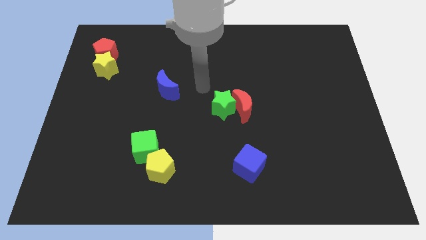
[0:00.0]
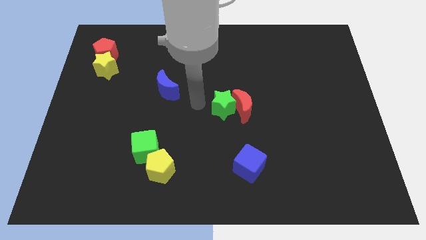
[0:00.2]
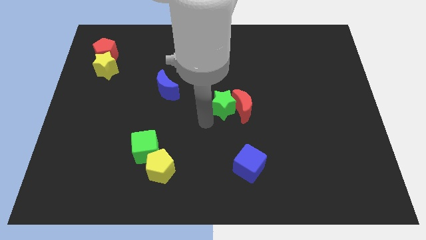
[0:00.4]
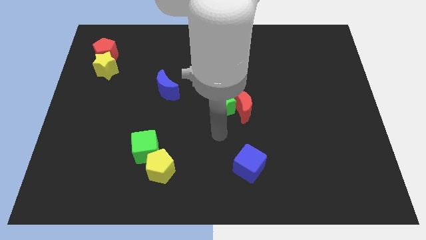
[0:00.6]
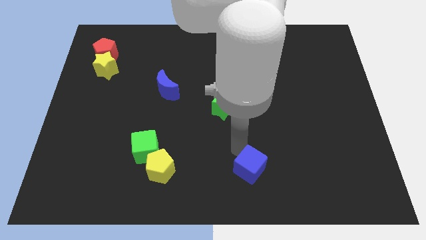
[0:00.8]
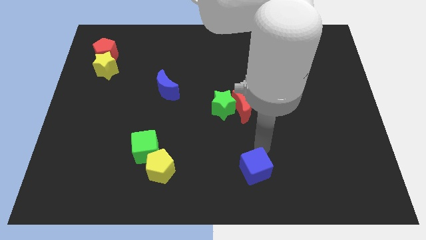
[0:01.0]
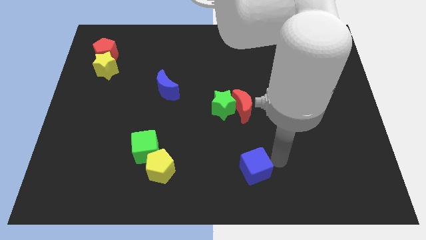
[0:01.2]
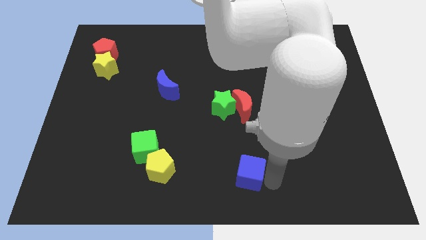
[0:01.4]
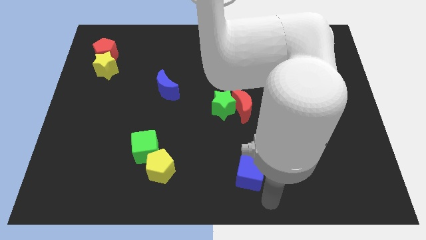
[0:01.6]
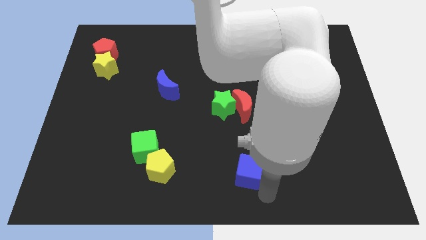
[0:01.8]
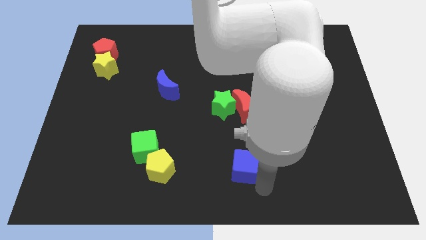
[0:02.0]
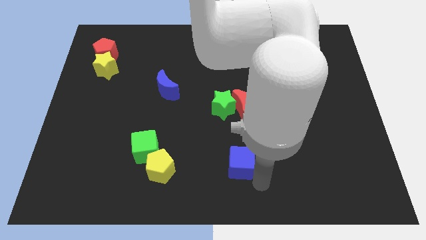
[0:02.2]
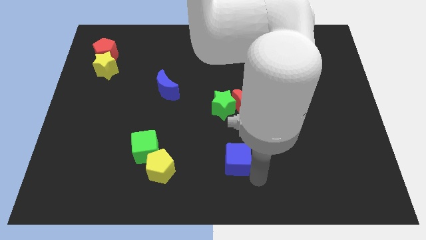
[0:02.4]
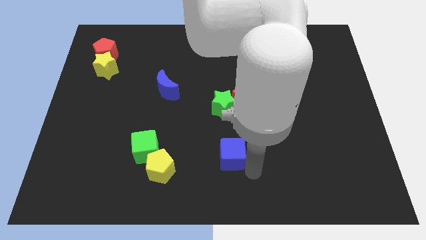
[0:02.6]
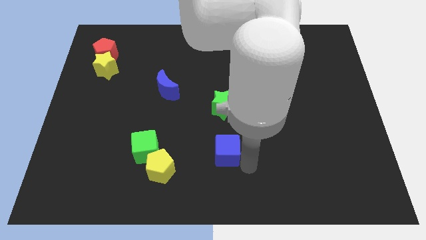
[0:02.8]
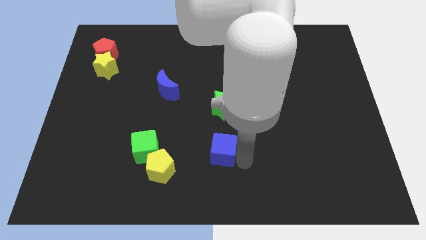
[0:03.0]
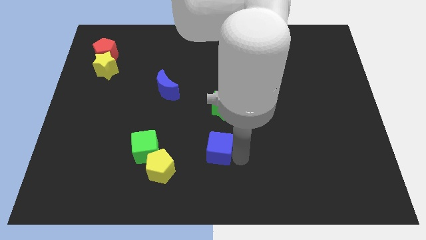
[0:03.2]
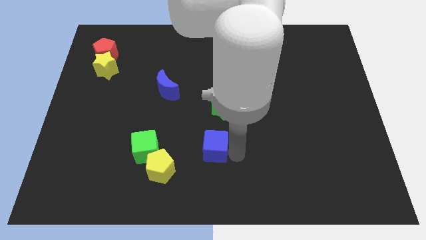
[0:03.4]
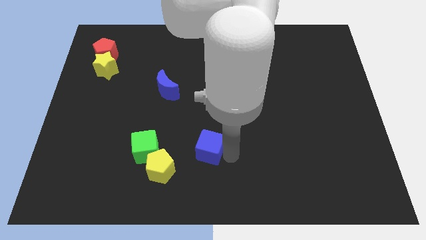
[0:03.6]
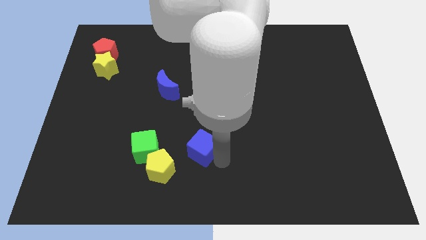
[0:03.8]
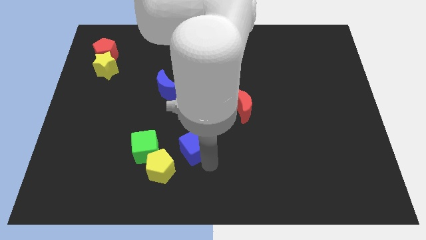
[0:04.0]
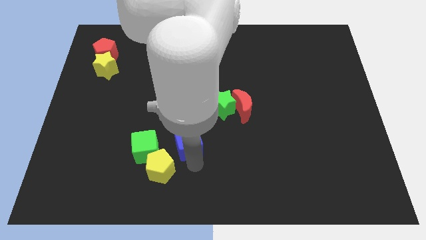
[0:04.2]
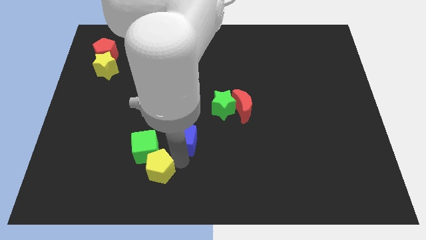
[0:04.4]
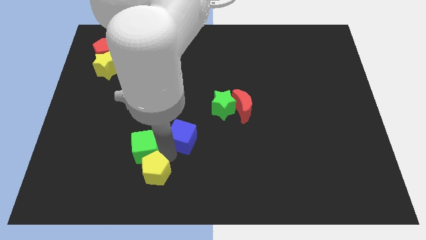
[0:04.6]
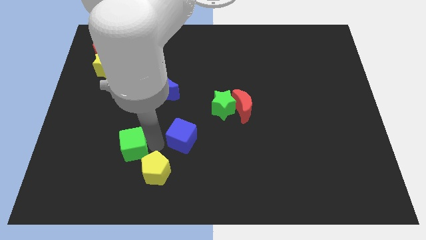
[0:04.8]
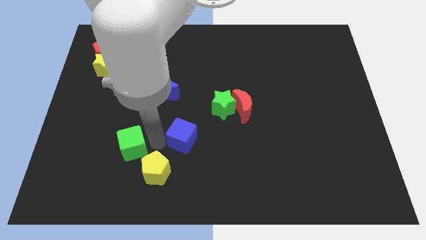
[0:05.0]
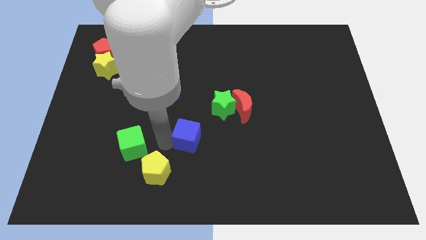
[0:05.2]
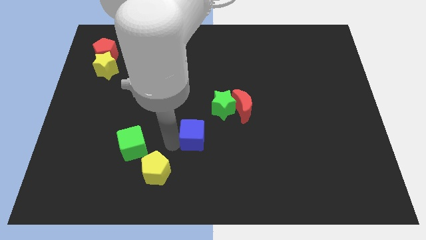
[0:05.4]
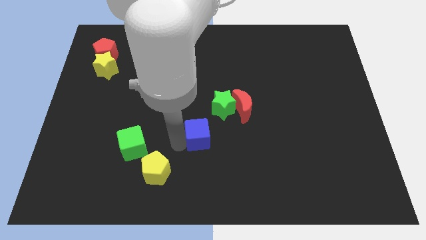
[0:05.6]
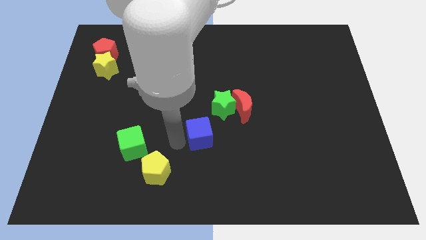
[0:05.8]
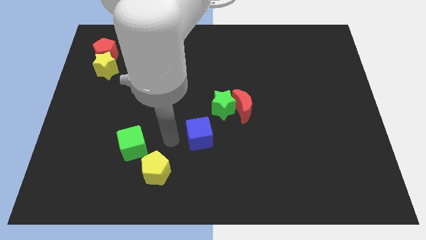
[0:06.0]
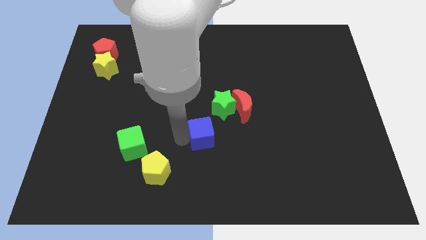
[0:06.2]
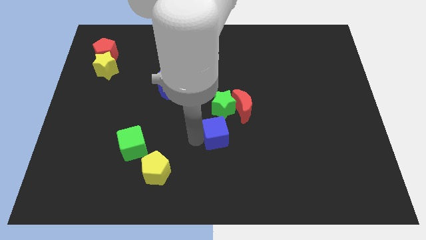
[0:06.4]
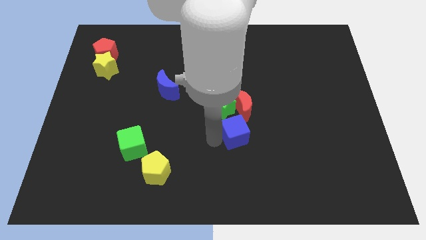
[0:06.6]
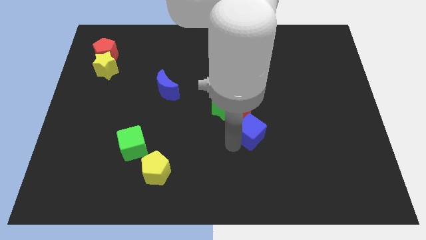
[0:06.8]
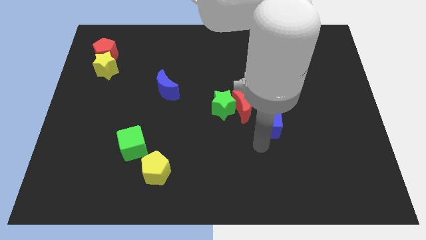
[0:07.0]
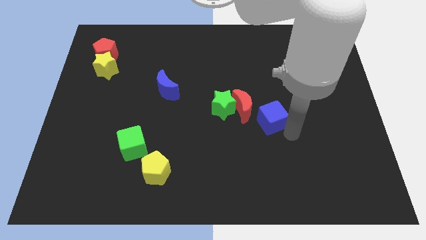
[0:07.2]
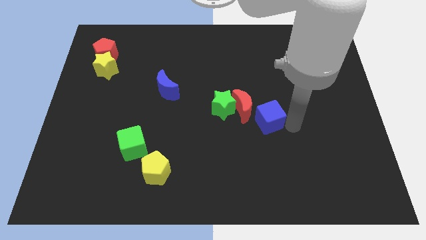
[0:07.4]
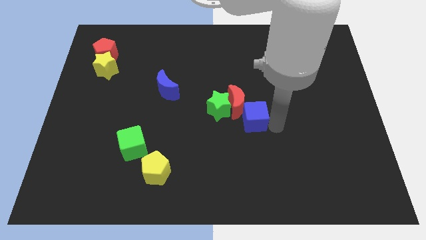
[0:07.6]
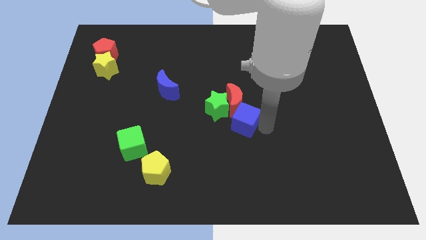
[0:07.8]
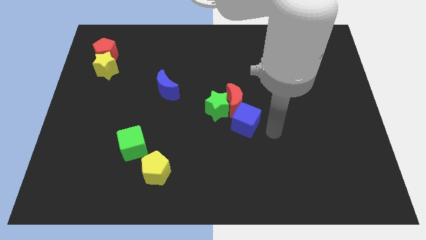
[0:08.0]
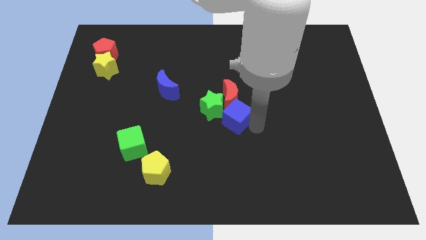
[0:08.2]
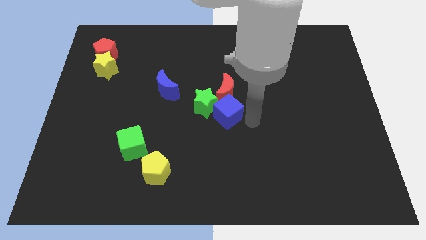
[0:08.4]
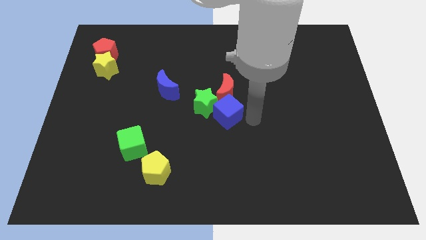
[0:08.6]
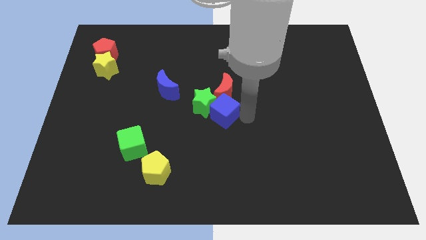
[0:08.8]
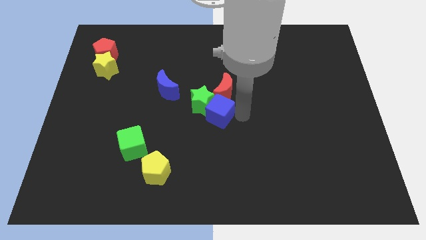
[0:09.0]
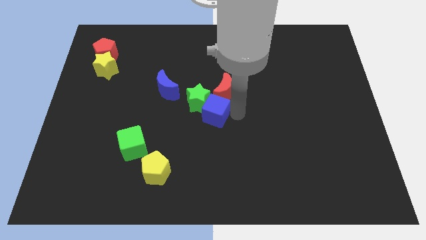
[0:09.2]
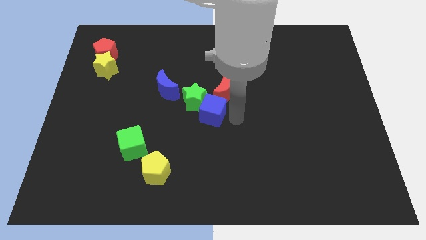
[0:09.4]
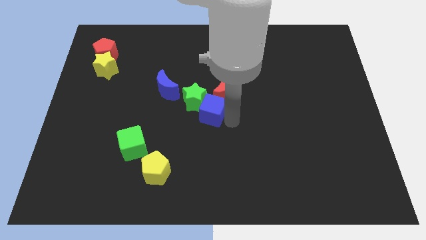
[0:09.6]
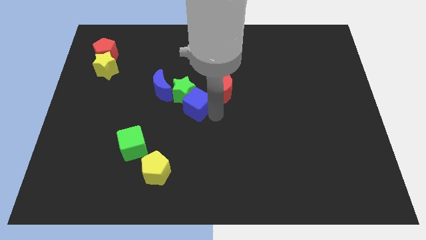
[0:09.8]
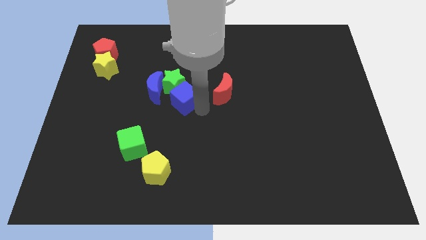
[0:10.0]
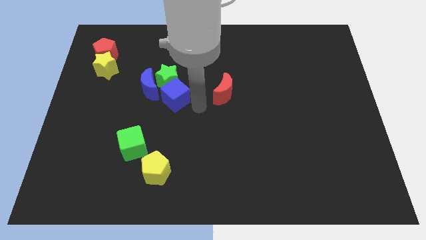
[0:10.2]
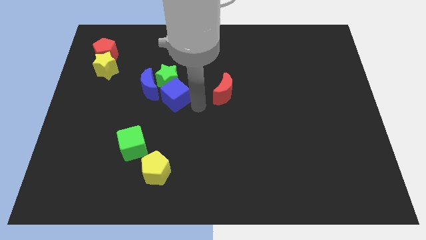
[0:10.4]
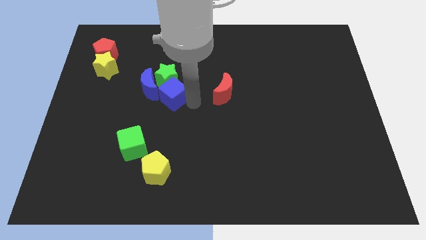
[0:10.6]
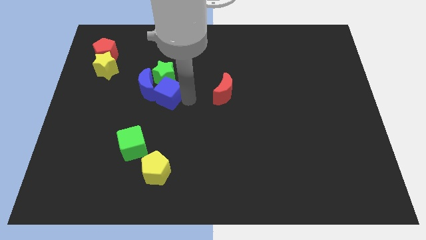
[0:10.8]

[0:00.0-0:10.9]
slide the blue cube close to the blue moon

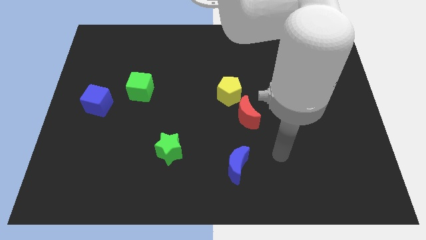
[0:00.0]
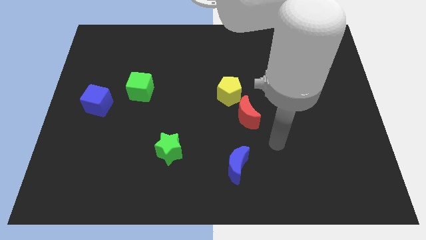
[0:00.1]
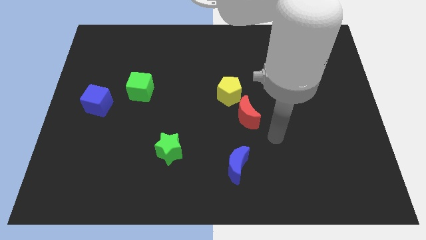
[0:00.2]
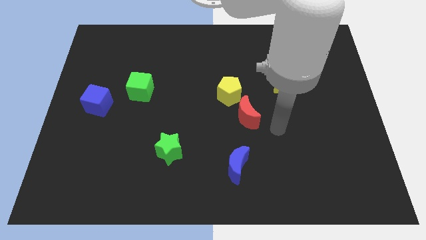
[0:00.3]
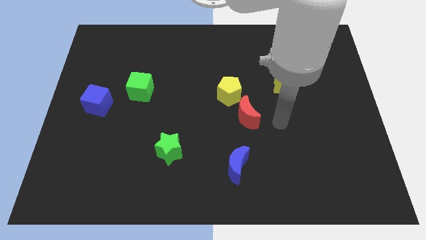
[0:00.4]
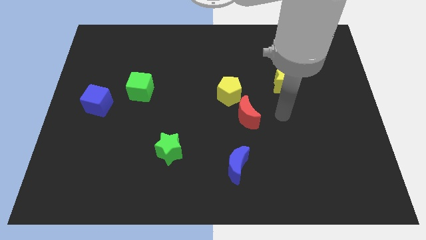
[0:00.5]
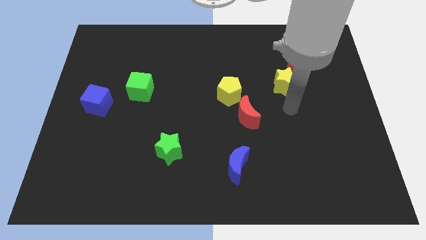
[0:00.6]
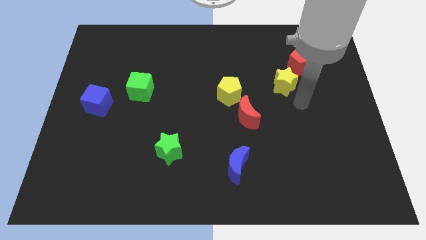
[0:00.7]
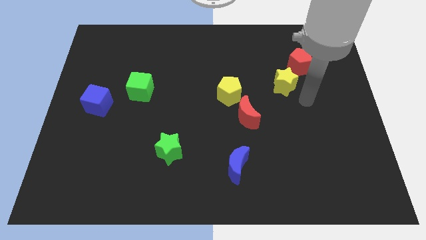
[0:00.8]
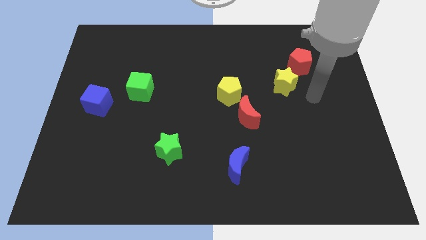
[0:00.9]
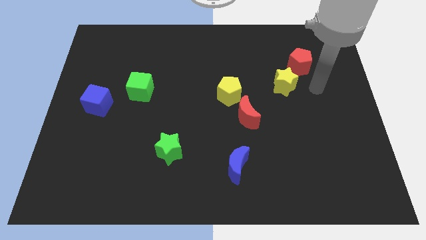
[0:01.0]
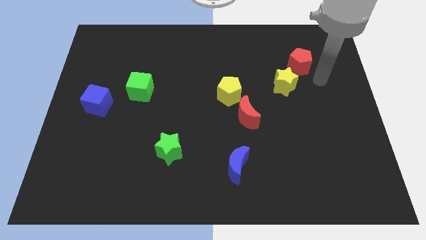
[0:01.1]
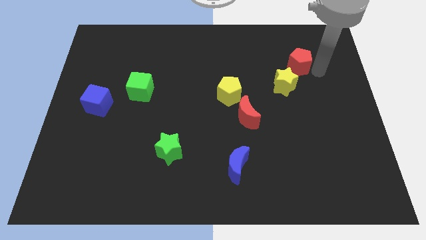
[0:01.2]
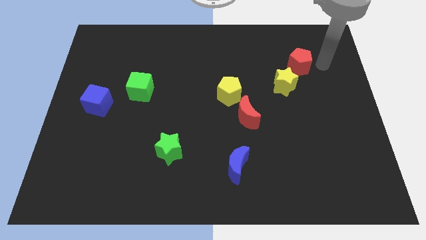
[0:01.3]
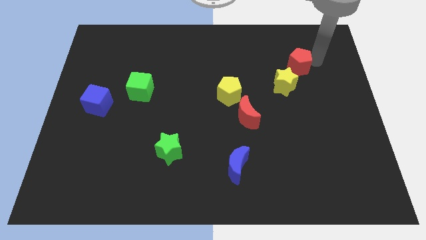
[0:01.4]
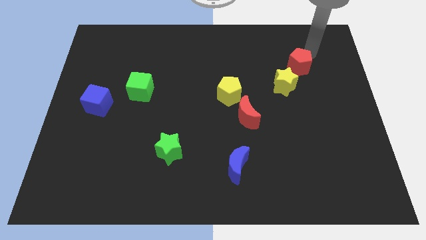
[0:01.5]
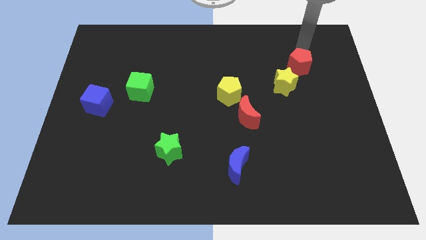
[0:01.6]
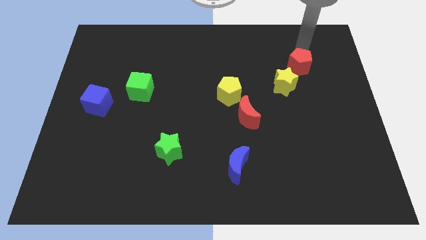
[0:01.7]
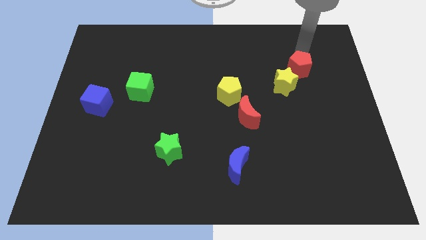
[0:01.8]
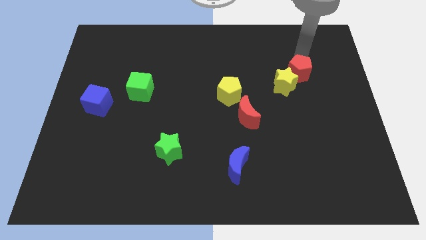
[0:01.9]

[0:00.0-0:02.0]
put the red pentagon next to the yellow star
